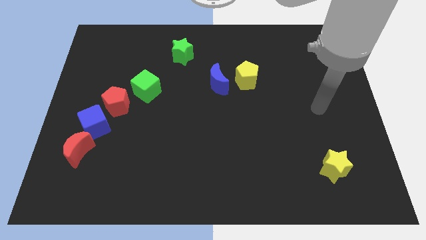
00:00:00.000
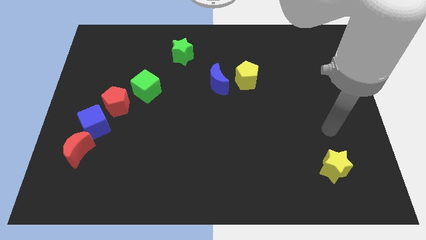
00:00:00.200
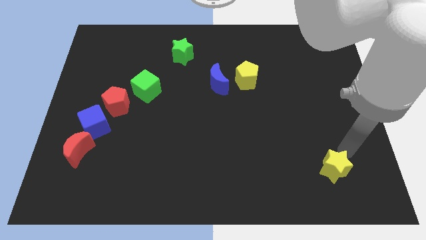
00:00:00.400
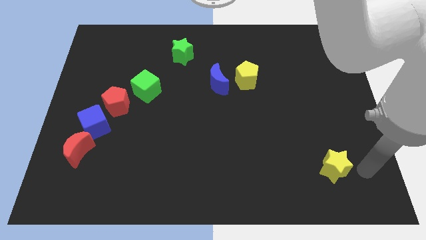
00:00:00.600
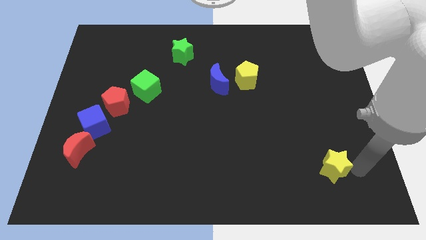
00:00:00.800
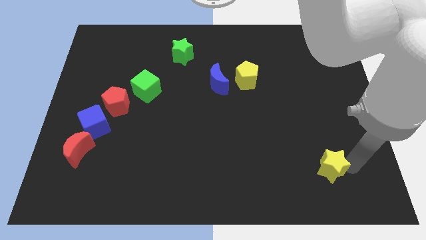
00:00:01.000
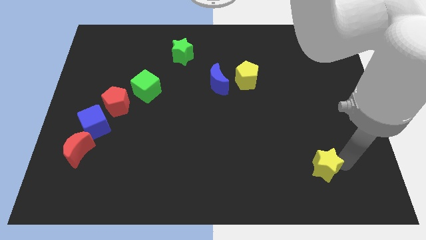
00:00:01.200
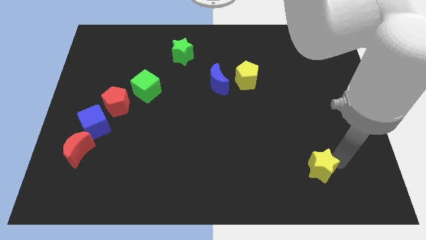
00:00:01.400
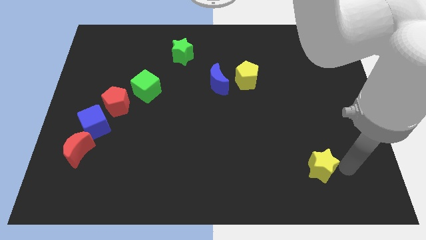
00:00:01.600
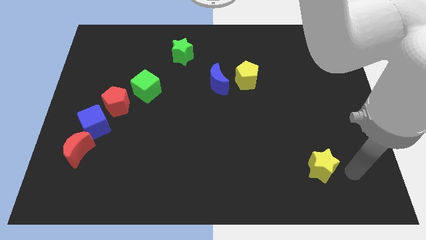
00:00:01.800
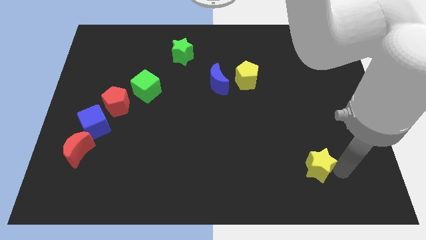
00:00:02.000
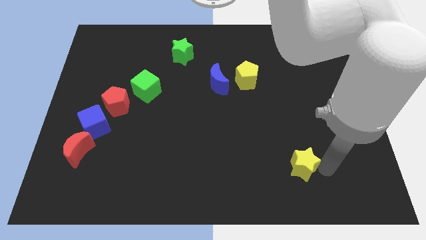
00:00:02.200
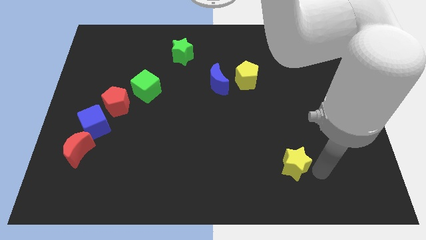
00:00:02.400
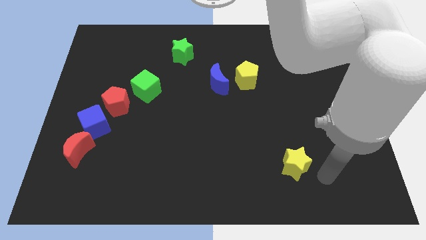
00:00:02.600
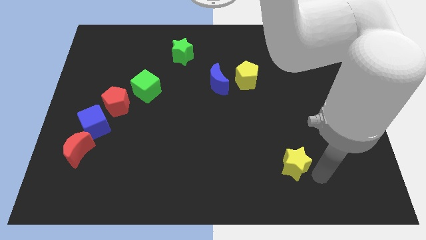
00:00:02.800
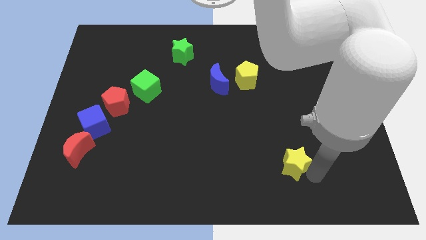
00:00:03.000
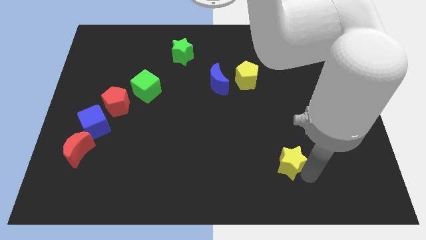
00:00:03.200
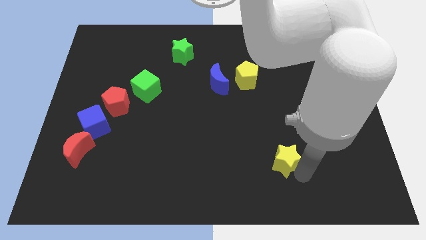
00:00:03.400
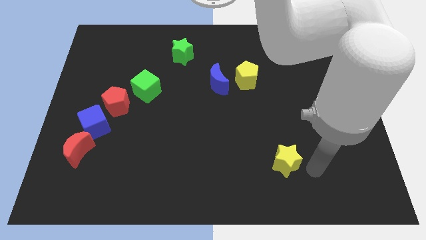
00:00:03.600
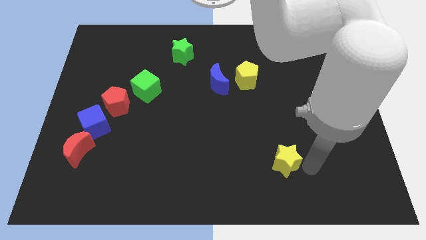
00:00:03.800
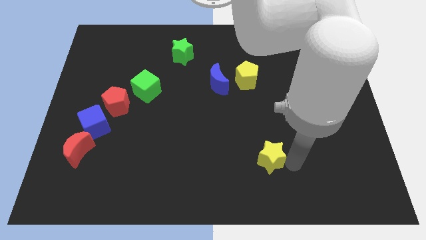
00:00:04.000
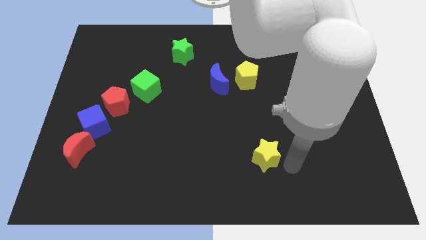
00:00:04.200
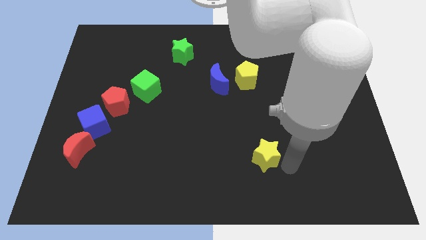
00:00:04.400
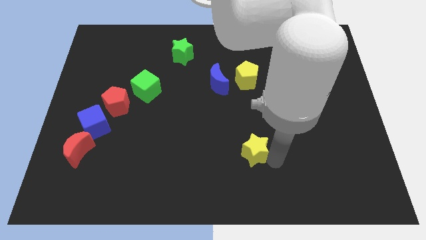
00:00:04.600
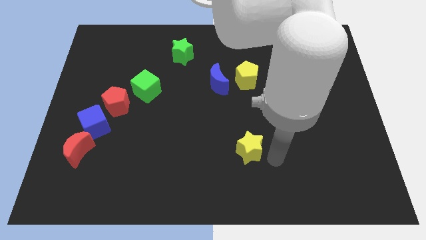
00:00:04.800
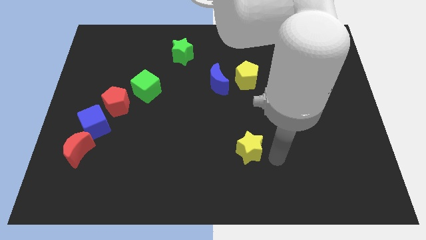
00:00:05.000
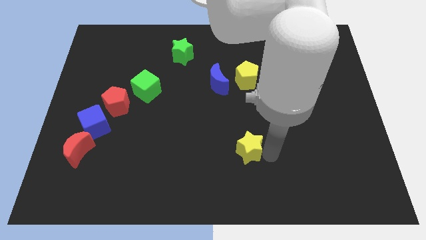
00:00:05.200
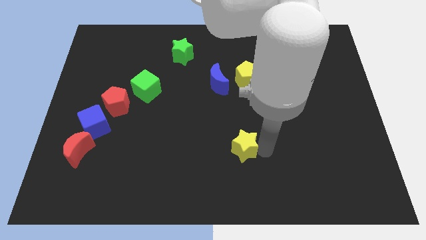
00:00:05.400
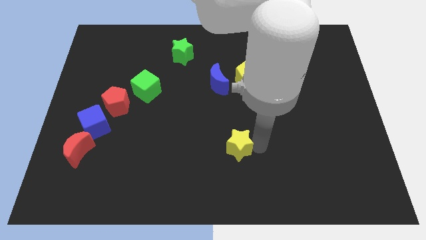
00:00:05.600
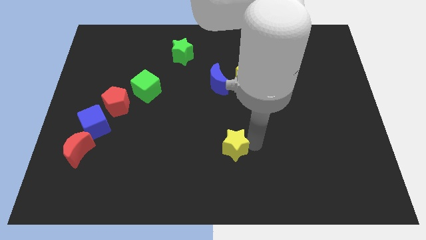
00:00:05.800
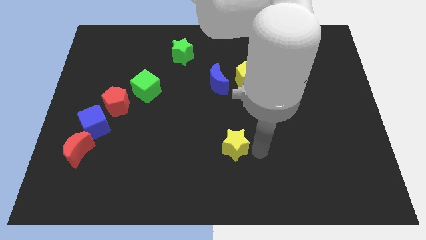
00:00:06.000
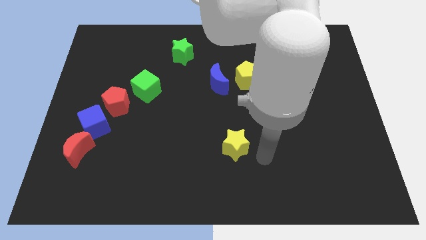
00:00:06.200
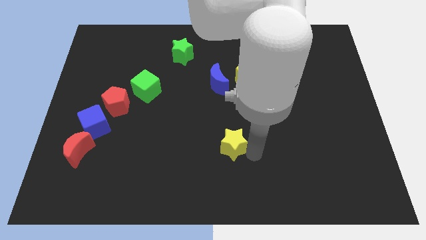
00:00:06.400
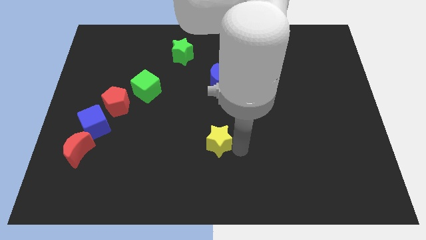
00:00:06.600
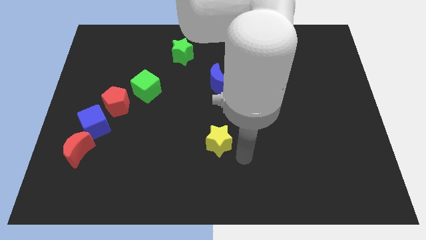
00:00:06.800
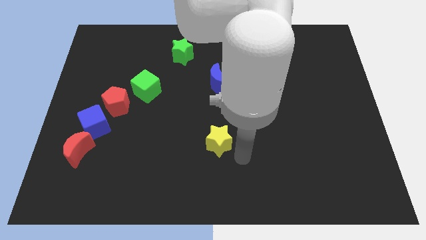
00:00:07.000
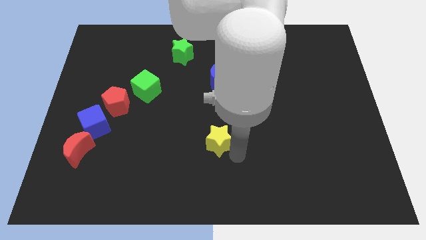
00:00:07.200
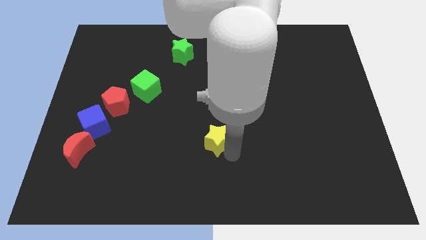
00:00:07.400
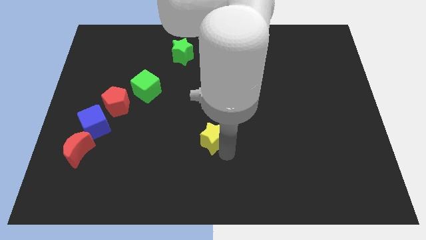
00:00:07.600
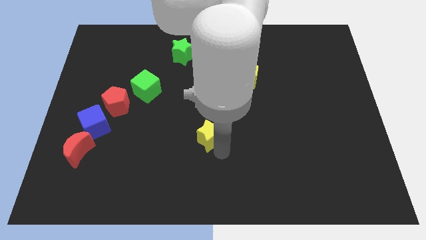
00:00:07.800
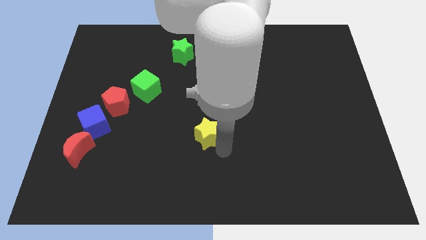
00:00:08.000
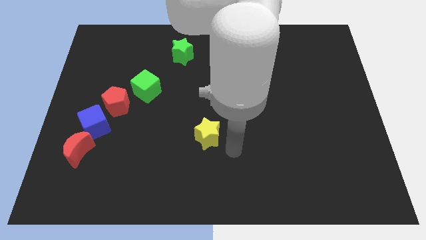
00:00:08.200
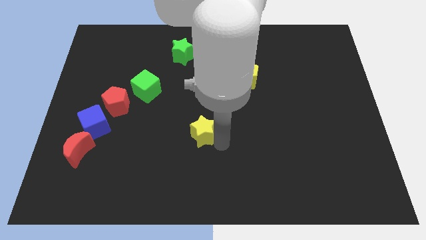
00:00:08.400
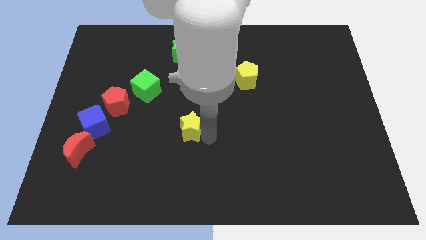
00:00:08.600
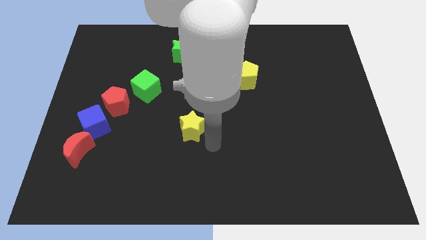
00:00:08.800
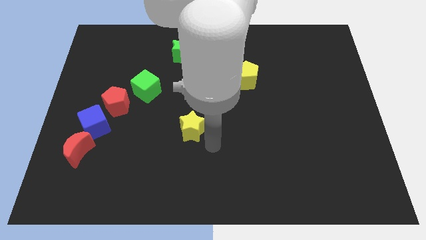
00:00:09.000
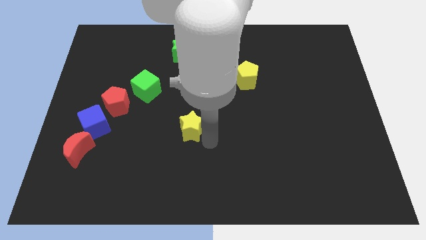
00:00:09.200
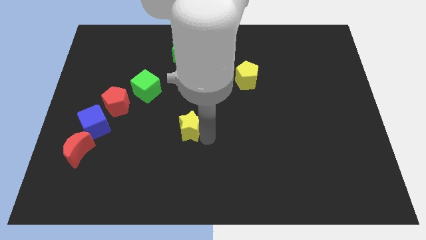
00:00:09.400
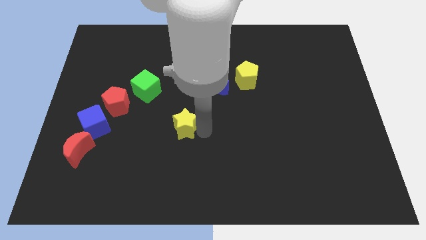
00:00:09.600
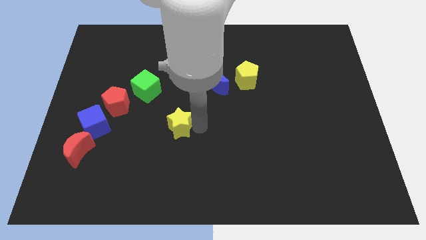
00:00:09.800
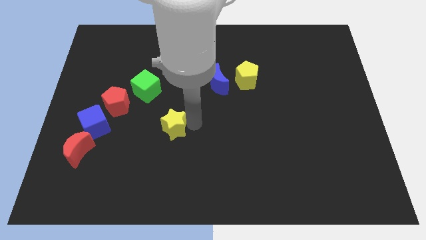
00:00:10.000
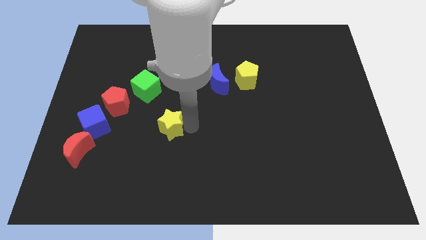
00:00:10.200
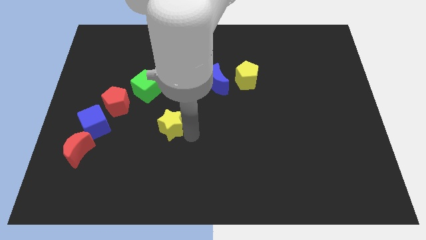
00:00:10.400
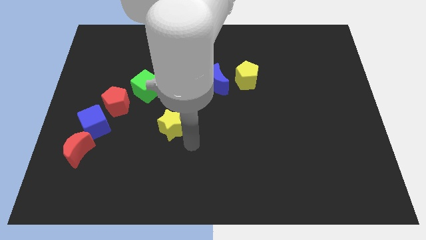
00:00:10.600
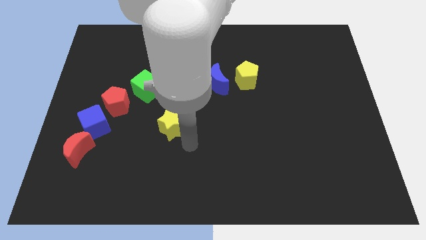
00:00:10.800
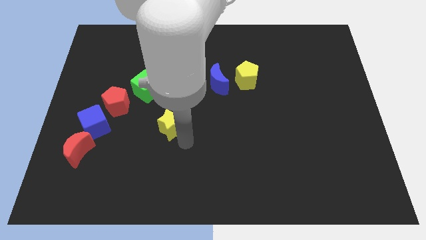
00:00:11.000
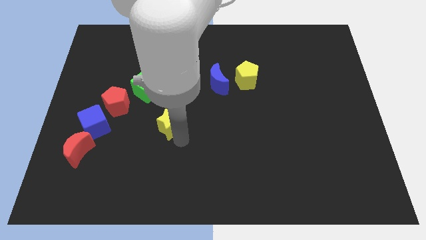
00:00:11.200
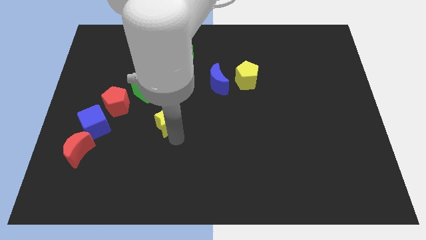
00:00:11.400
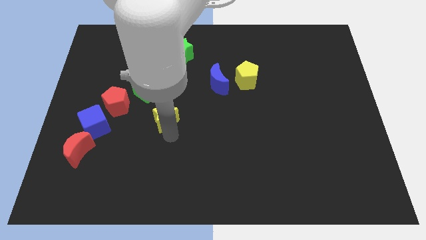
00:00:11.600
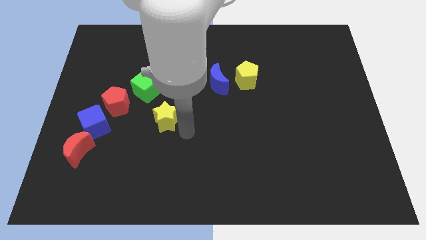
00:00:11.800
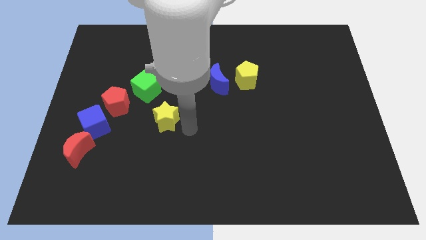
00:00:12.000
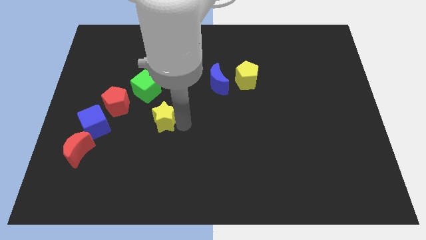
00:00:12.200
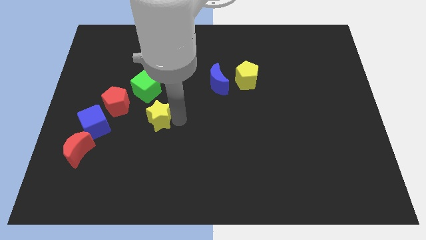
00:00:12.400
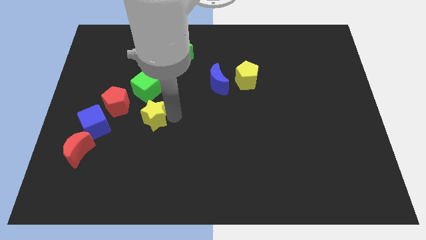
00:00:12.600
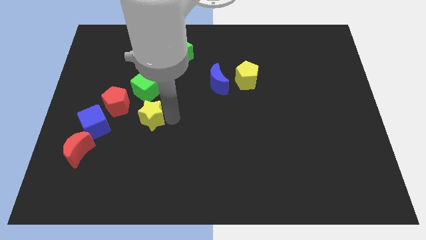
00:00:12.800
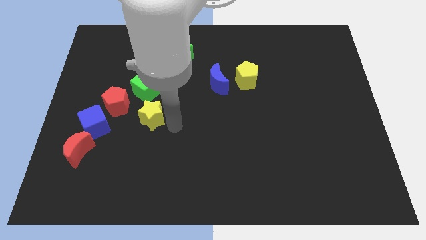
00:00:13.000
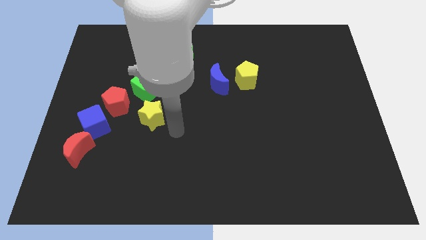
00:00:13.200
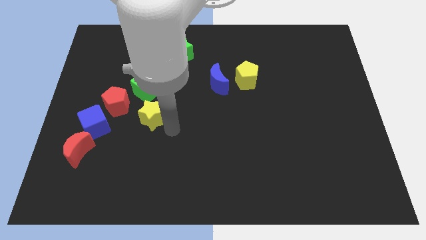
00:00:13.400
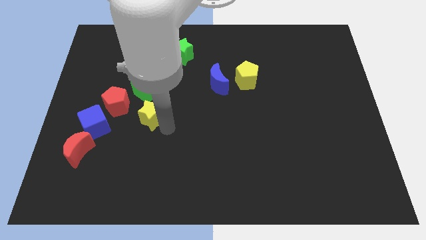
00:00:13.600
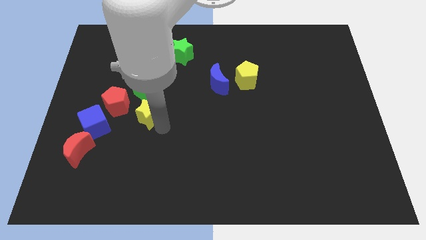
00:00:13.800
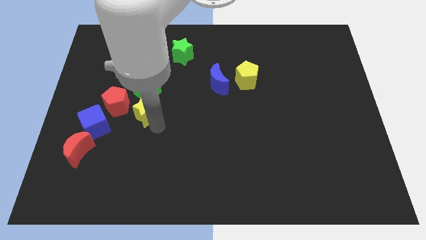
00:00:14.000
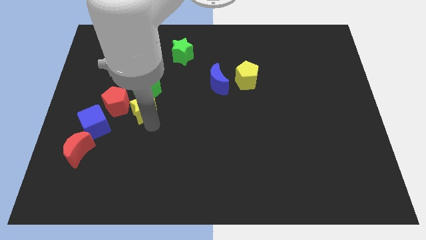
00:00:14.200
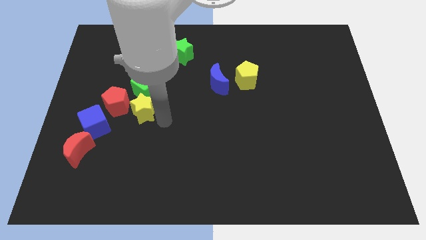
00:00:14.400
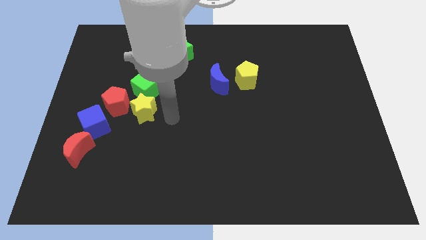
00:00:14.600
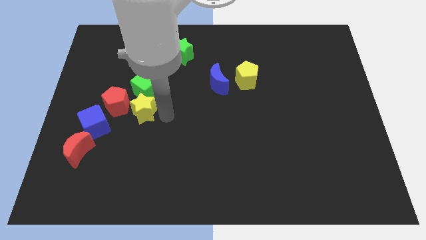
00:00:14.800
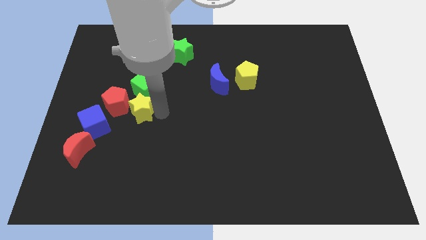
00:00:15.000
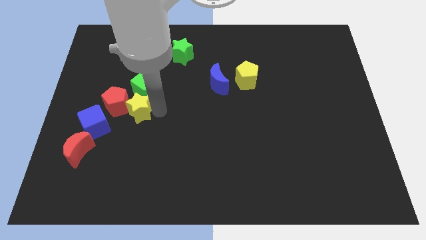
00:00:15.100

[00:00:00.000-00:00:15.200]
push the yellow star next to the red pentagon
